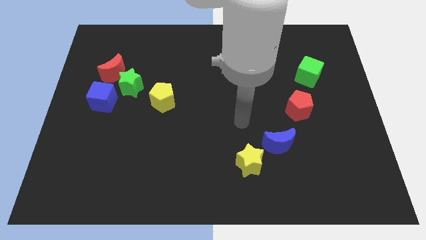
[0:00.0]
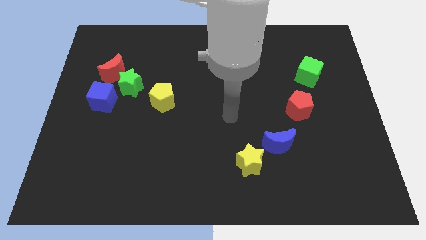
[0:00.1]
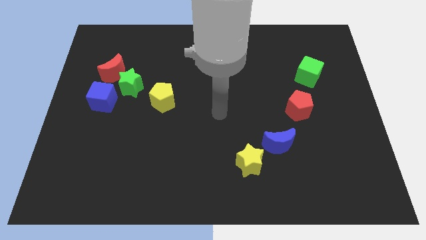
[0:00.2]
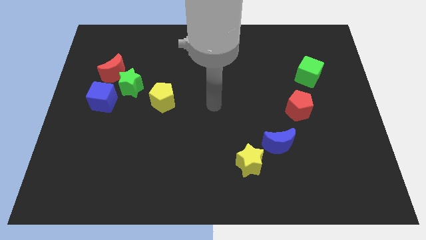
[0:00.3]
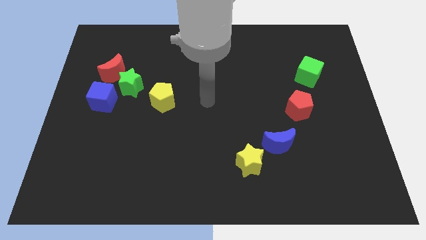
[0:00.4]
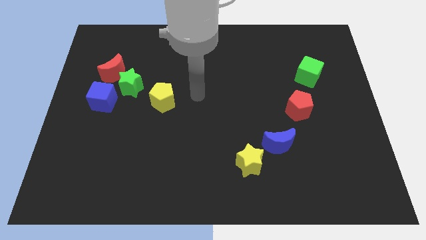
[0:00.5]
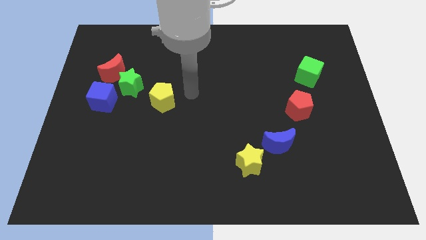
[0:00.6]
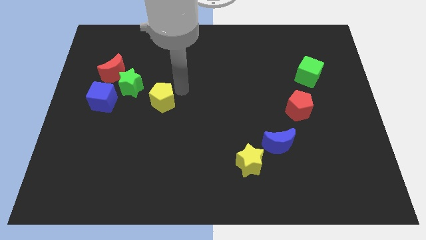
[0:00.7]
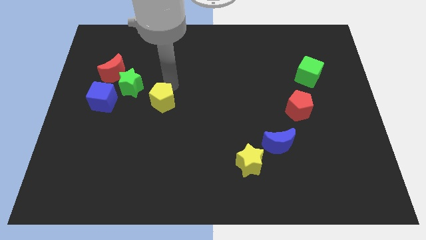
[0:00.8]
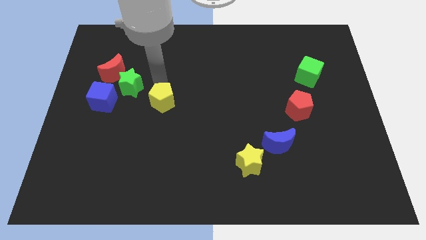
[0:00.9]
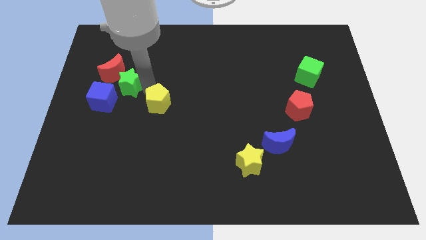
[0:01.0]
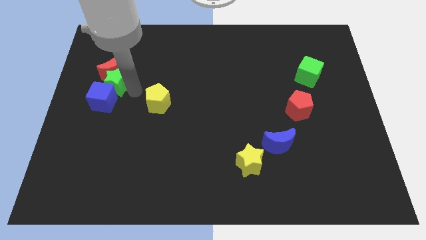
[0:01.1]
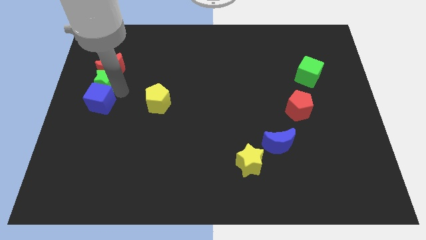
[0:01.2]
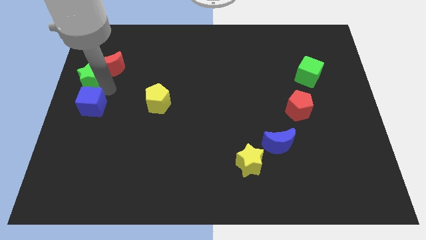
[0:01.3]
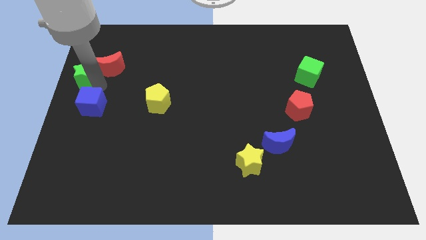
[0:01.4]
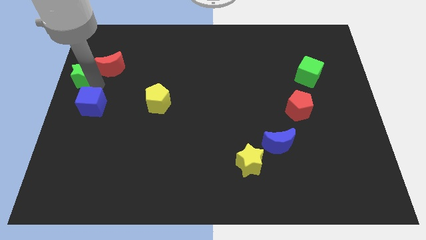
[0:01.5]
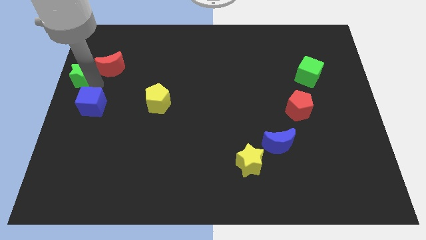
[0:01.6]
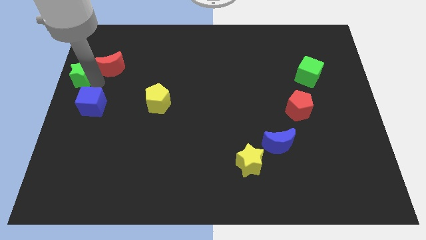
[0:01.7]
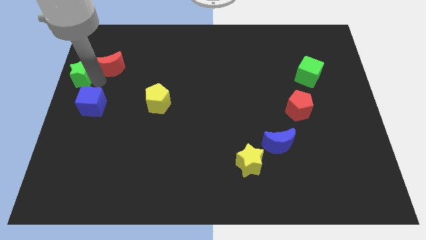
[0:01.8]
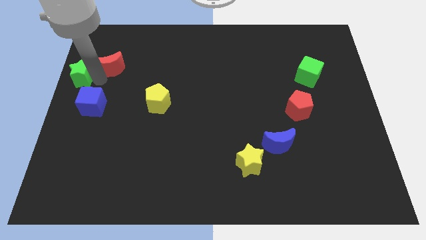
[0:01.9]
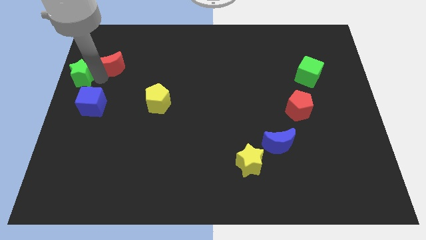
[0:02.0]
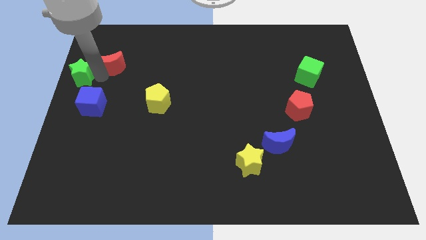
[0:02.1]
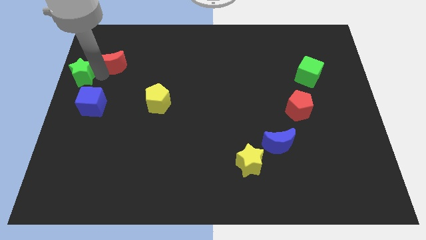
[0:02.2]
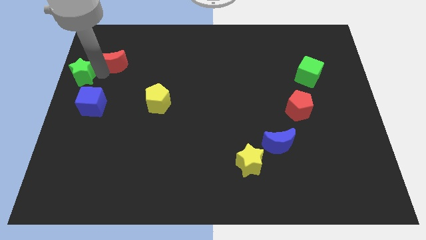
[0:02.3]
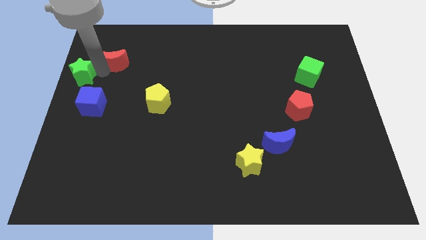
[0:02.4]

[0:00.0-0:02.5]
move the red moon away from the green star and blue cube

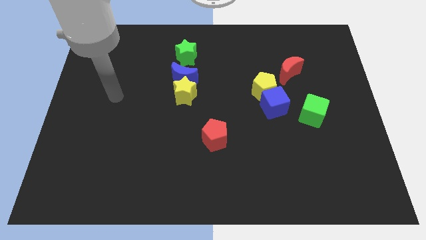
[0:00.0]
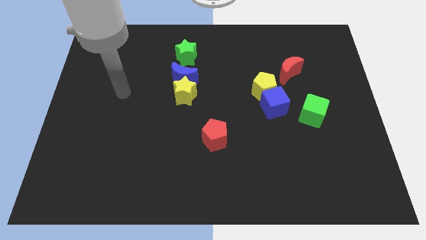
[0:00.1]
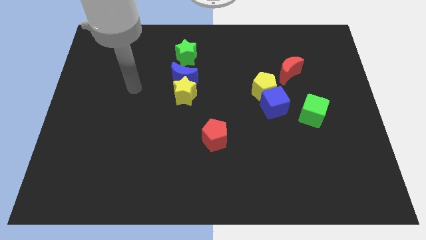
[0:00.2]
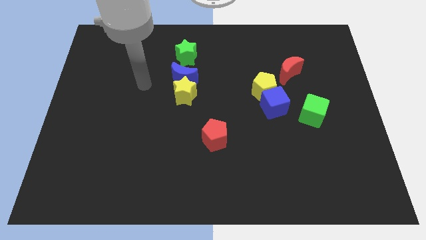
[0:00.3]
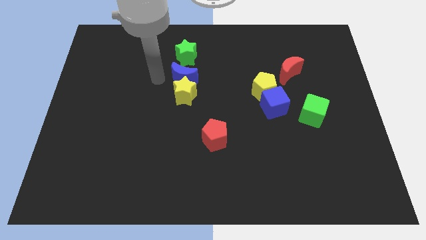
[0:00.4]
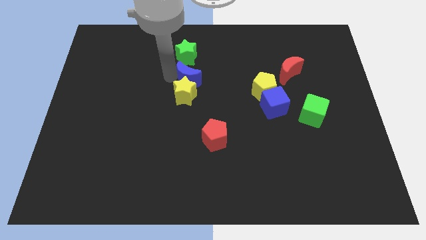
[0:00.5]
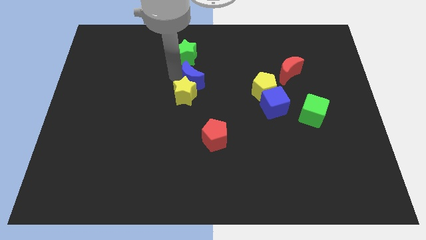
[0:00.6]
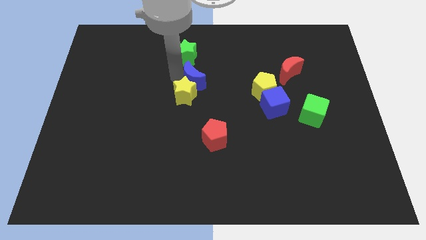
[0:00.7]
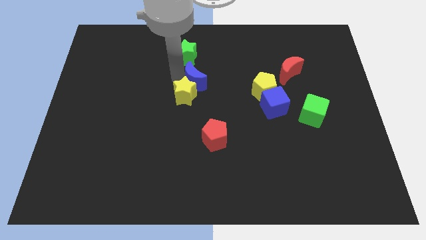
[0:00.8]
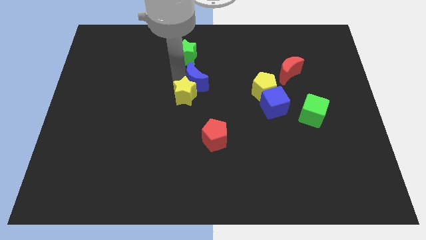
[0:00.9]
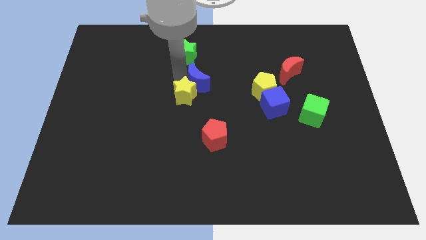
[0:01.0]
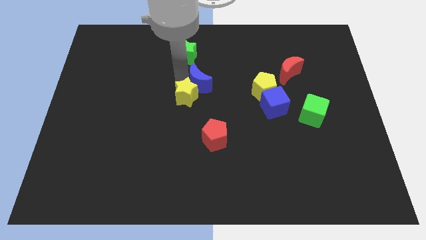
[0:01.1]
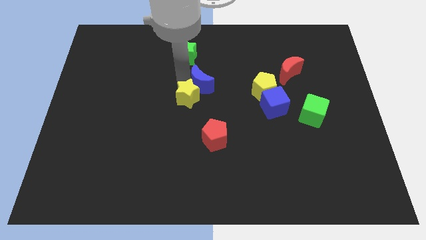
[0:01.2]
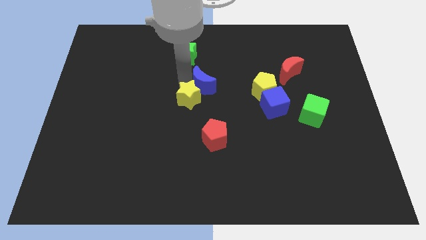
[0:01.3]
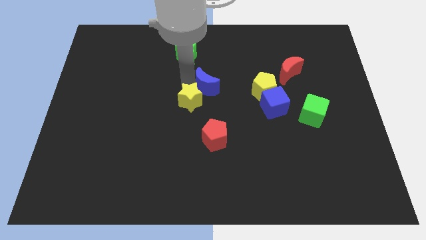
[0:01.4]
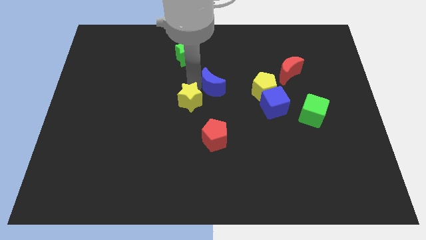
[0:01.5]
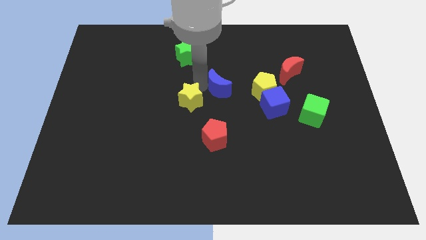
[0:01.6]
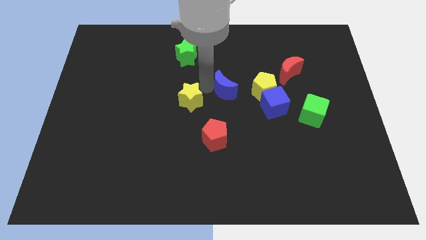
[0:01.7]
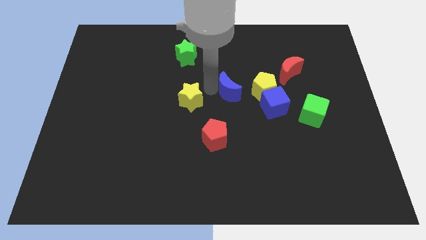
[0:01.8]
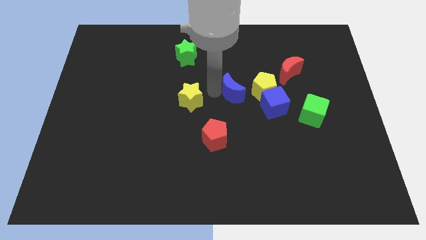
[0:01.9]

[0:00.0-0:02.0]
move the yellow star away from the blue moon

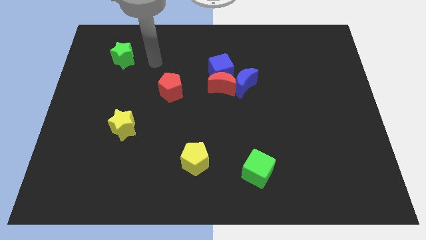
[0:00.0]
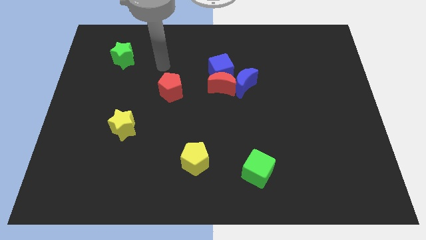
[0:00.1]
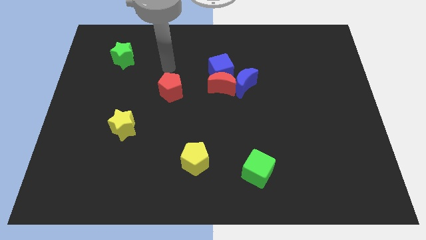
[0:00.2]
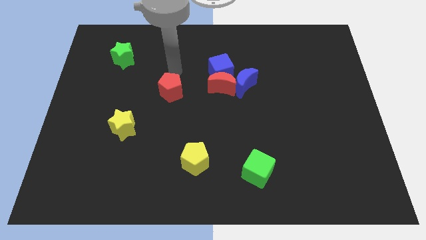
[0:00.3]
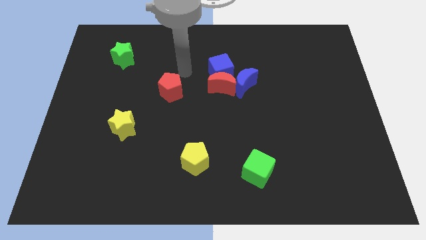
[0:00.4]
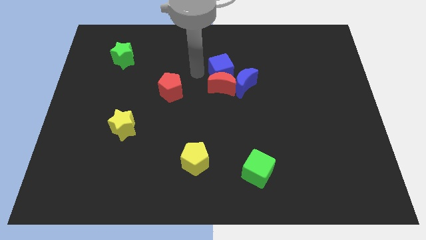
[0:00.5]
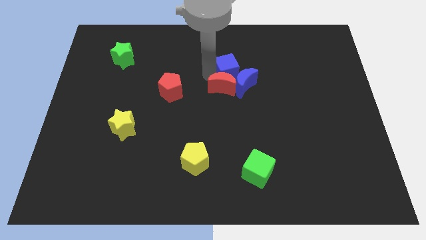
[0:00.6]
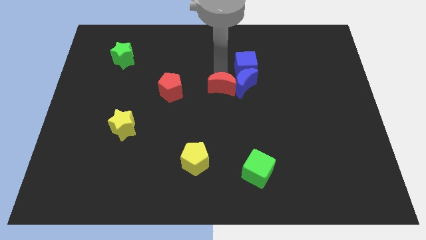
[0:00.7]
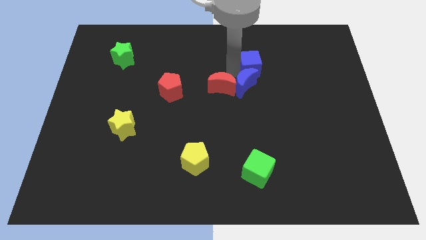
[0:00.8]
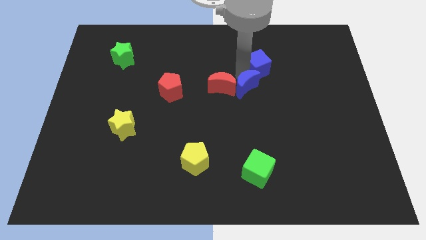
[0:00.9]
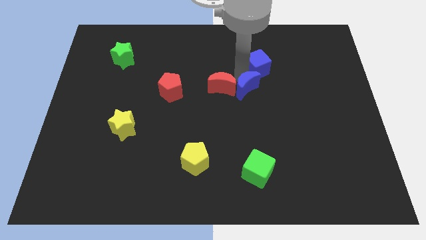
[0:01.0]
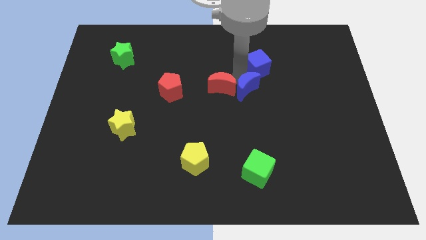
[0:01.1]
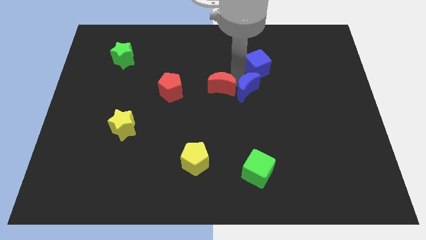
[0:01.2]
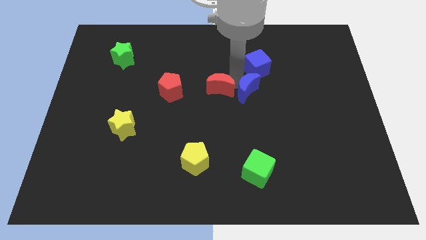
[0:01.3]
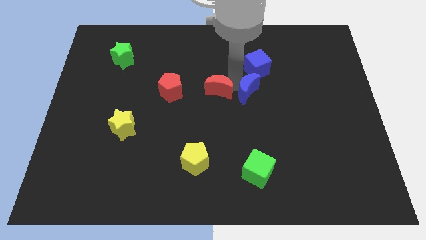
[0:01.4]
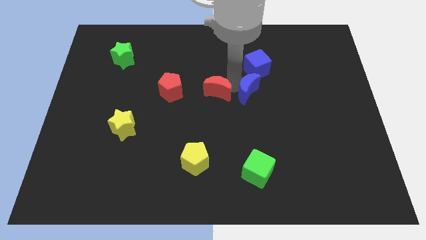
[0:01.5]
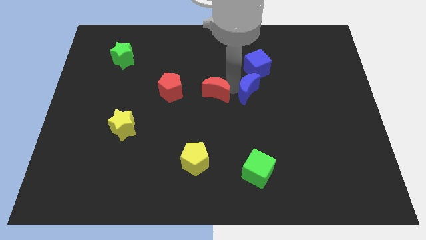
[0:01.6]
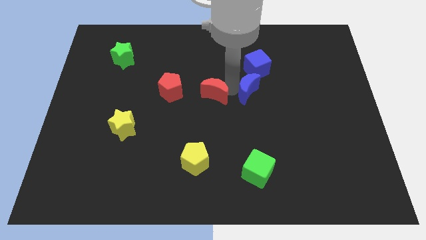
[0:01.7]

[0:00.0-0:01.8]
pull the red moon apart from the blue cube and blue moon

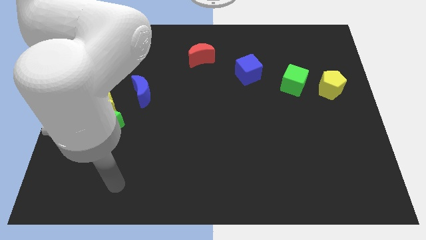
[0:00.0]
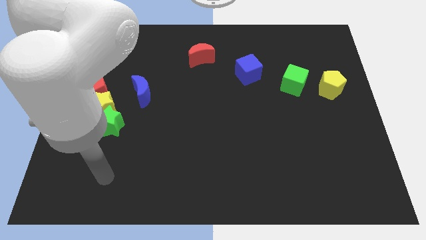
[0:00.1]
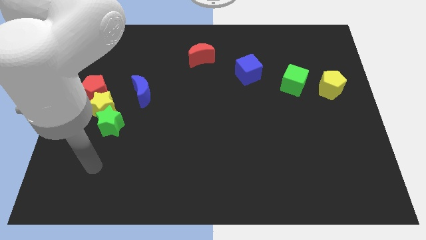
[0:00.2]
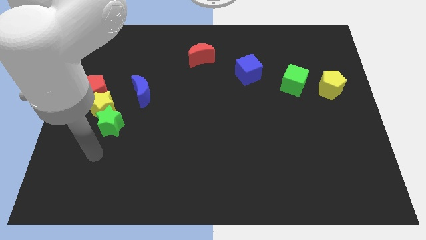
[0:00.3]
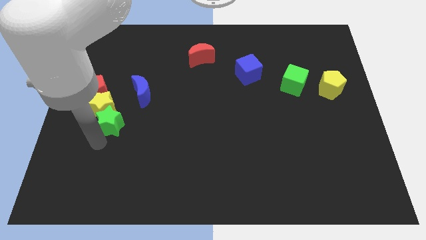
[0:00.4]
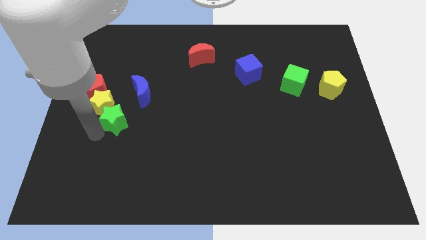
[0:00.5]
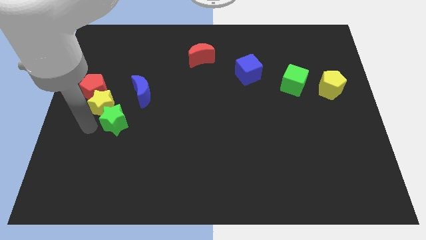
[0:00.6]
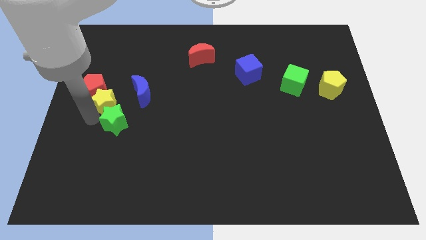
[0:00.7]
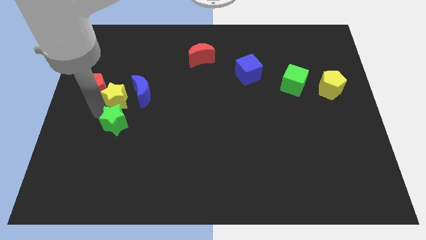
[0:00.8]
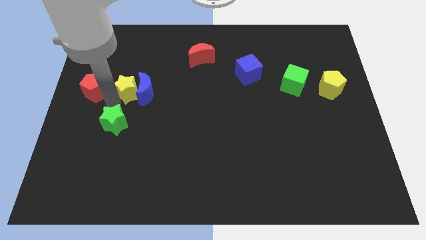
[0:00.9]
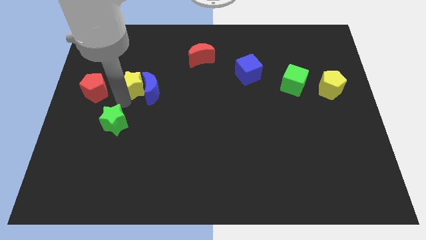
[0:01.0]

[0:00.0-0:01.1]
pull the green star apart from the yellow star

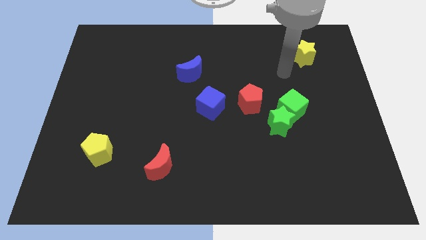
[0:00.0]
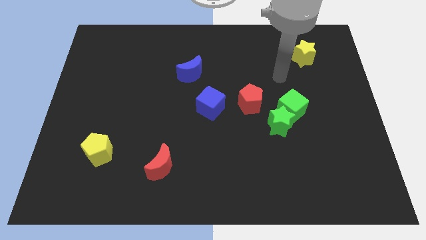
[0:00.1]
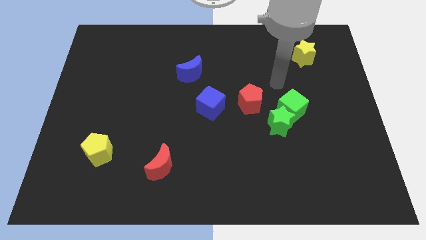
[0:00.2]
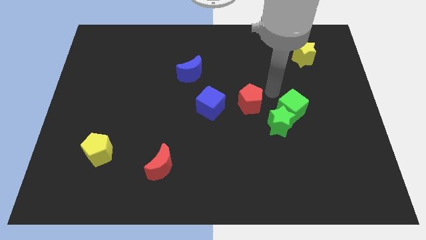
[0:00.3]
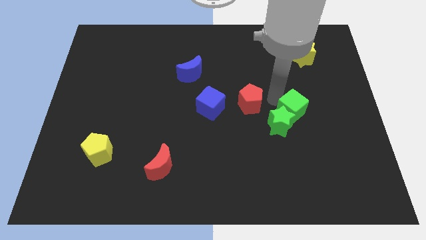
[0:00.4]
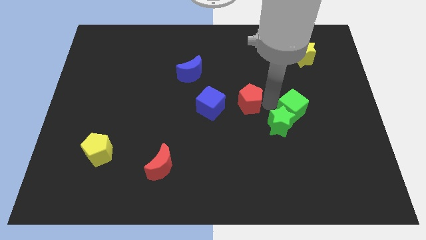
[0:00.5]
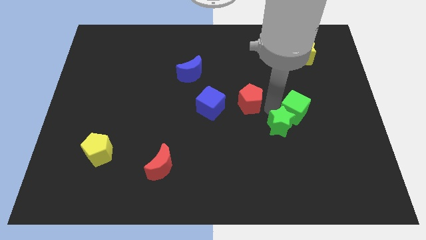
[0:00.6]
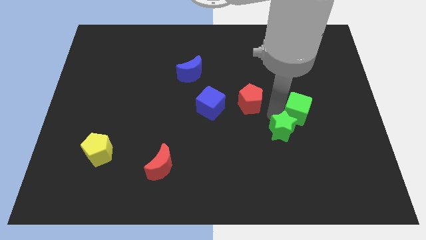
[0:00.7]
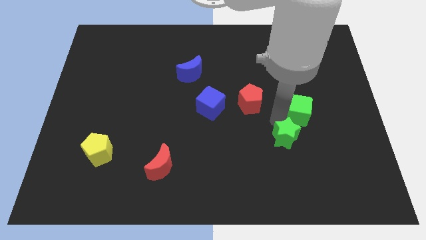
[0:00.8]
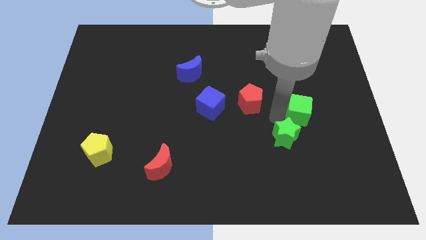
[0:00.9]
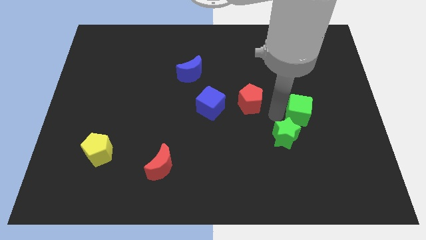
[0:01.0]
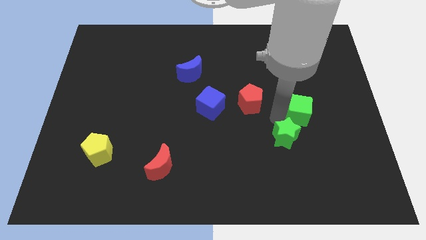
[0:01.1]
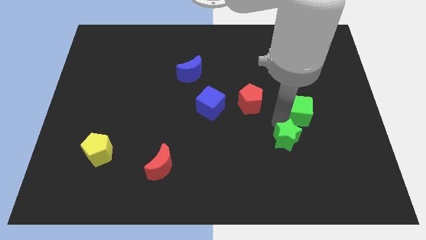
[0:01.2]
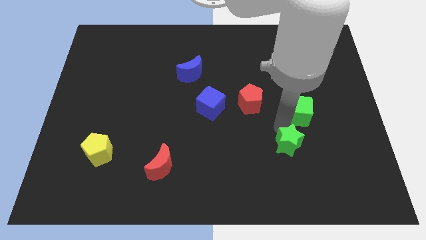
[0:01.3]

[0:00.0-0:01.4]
separate the green star from the green cube and red pentagon

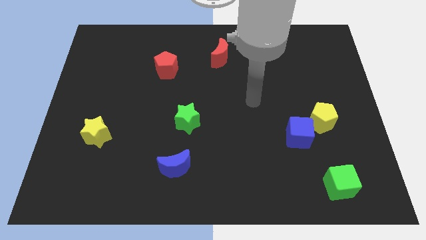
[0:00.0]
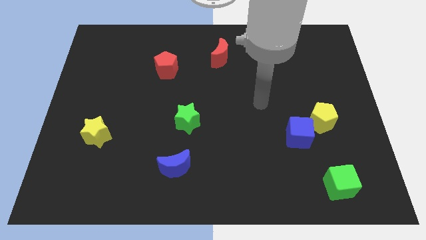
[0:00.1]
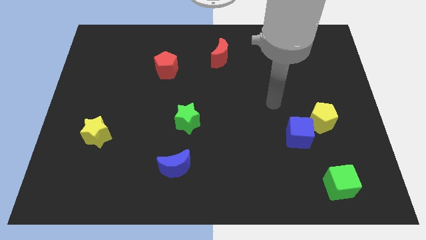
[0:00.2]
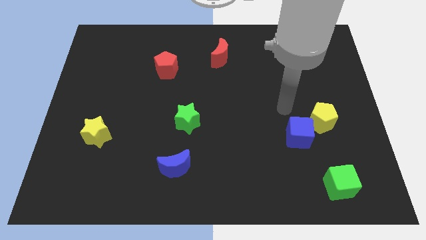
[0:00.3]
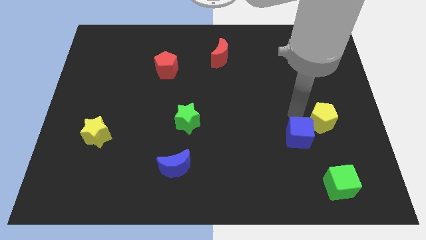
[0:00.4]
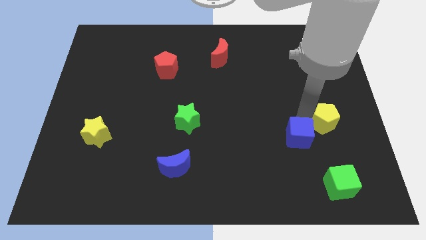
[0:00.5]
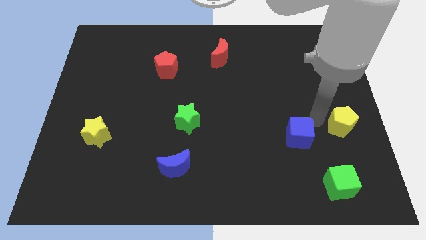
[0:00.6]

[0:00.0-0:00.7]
pull the blue cube apart from the yellow pentagon
